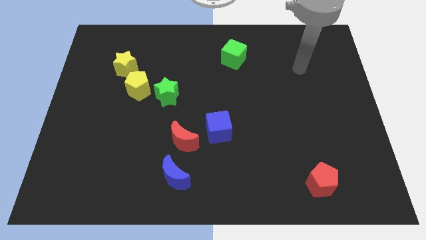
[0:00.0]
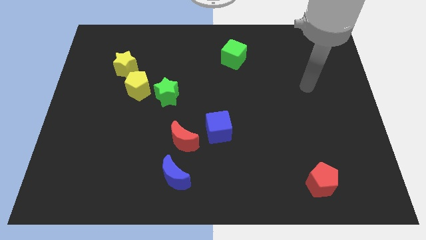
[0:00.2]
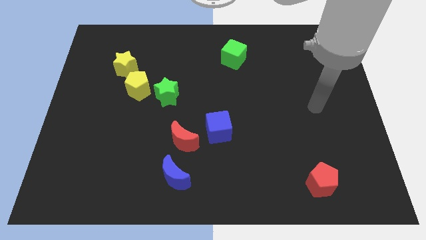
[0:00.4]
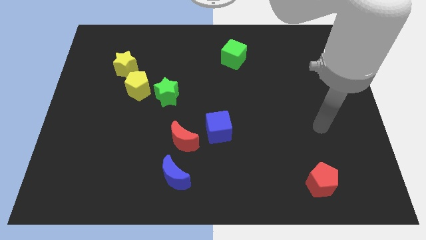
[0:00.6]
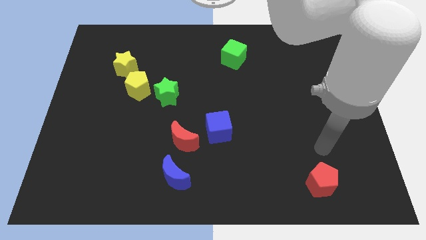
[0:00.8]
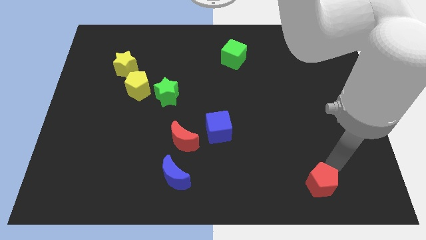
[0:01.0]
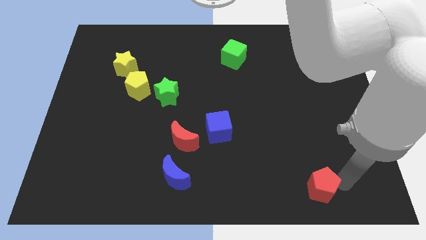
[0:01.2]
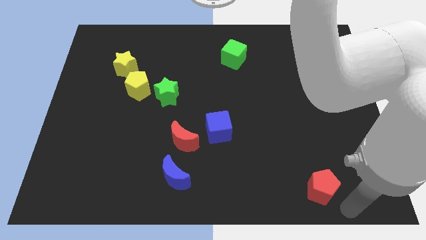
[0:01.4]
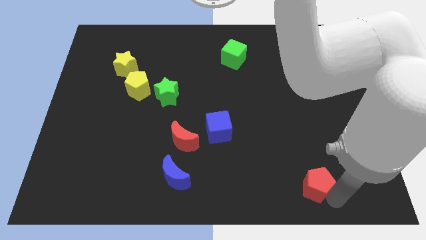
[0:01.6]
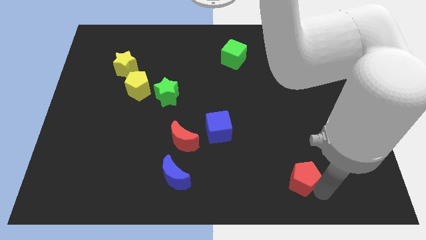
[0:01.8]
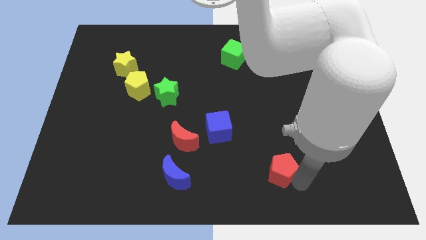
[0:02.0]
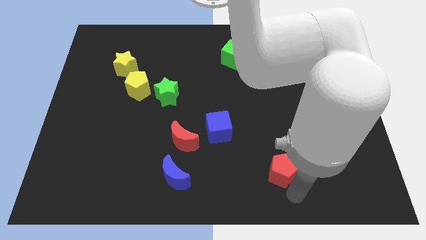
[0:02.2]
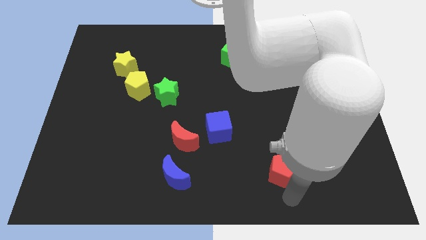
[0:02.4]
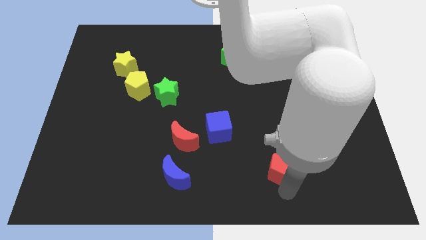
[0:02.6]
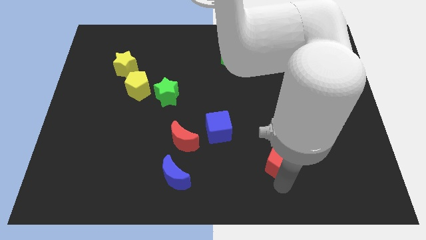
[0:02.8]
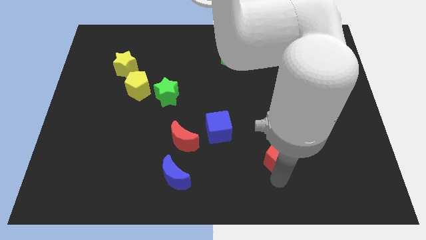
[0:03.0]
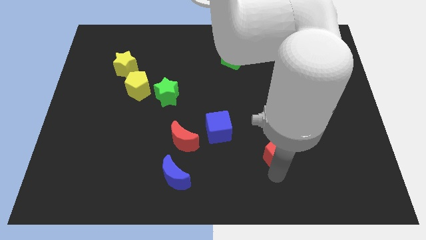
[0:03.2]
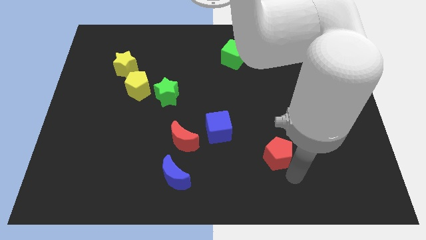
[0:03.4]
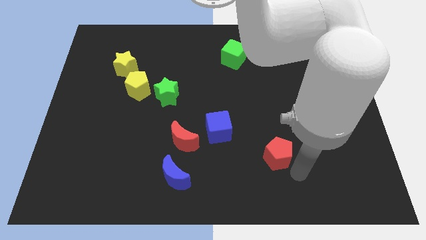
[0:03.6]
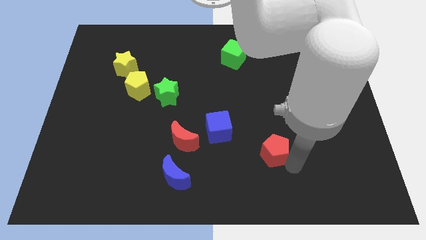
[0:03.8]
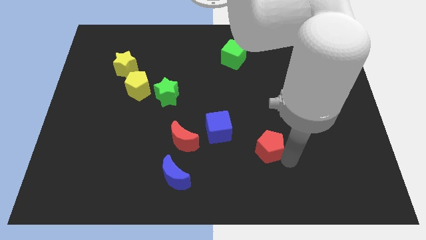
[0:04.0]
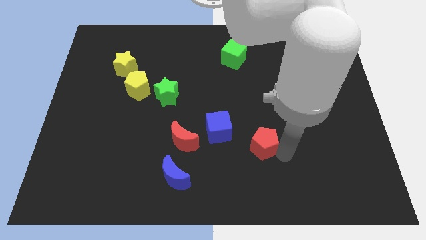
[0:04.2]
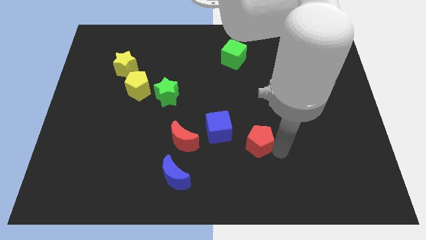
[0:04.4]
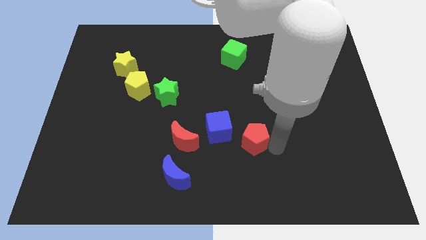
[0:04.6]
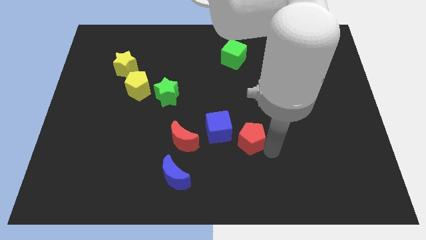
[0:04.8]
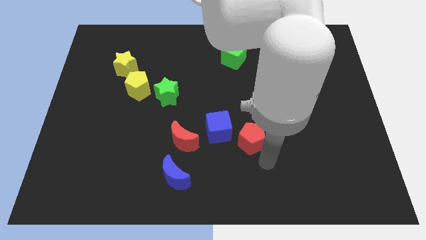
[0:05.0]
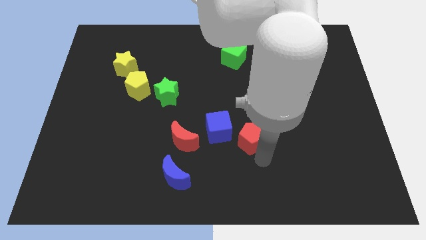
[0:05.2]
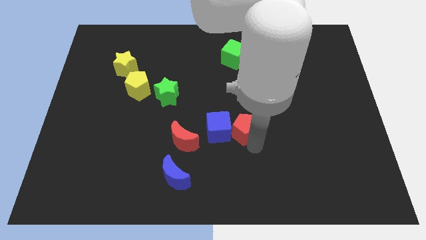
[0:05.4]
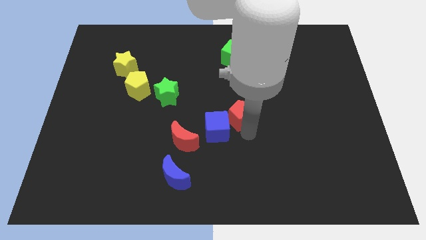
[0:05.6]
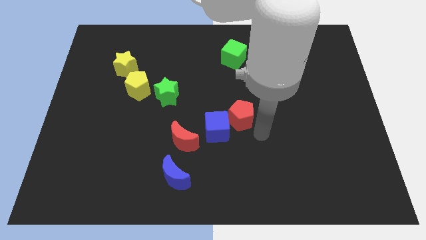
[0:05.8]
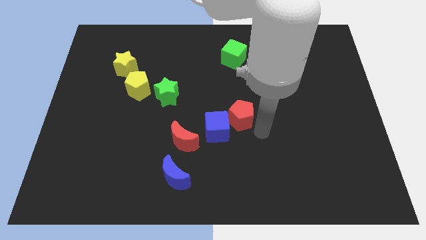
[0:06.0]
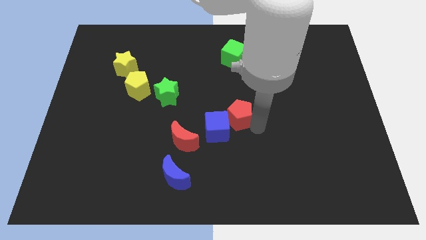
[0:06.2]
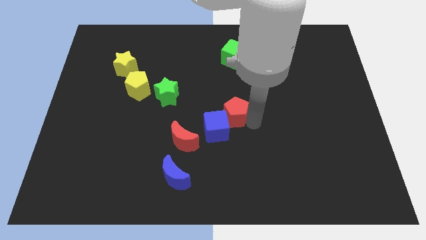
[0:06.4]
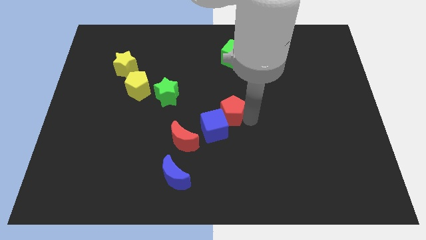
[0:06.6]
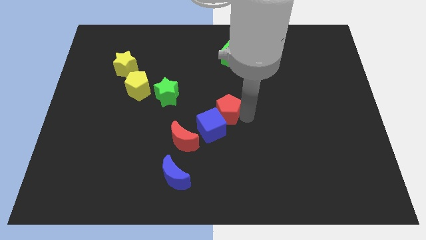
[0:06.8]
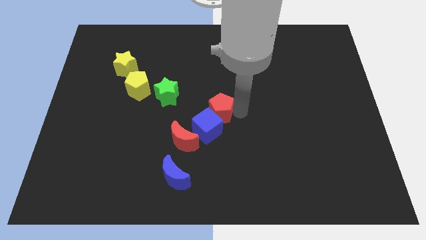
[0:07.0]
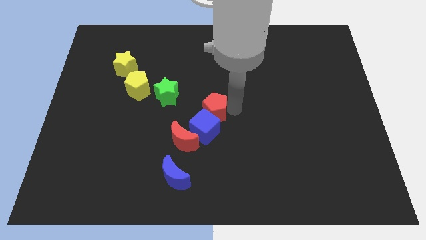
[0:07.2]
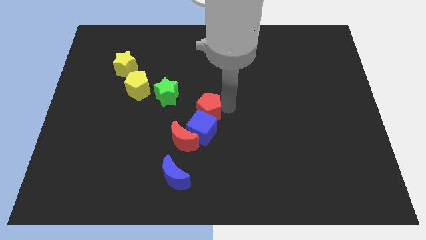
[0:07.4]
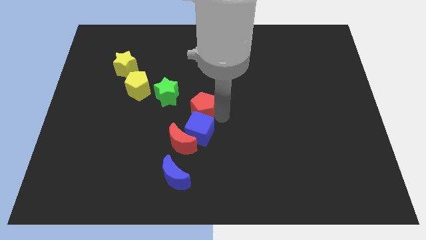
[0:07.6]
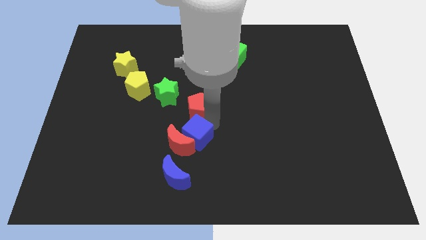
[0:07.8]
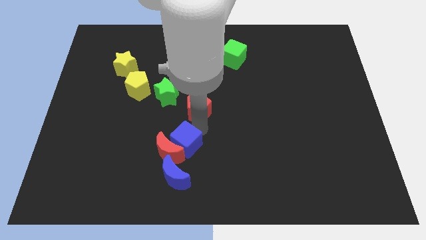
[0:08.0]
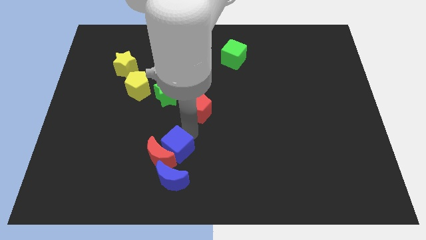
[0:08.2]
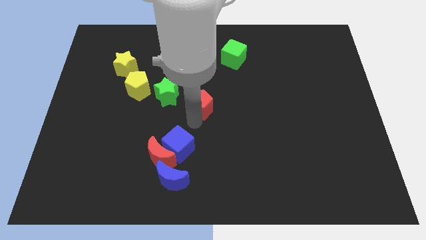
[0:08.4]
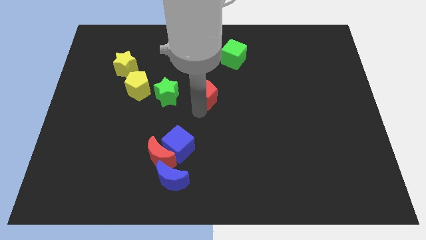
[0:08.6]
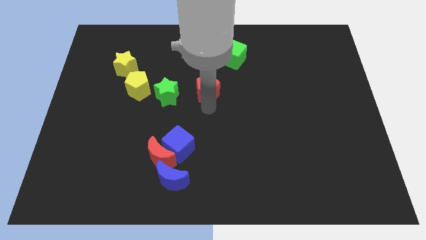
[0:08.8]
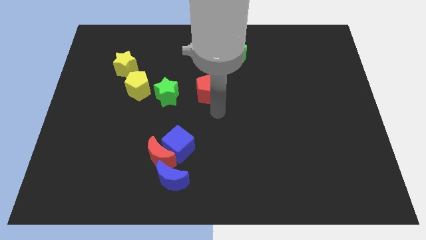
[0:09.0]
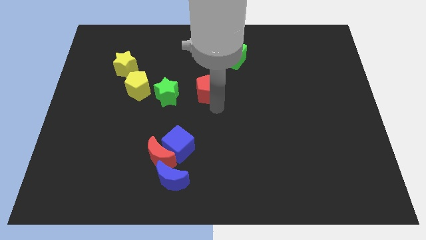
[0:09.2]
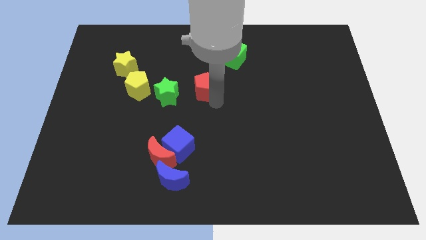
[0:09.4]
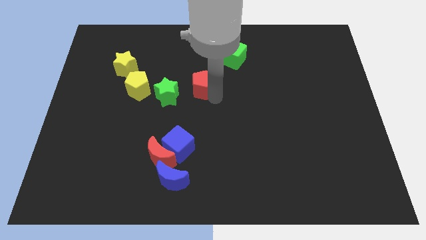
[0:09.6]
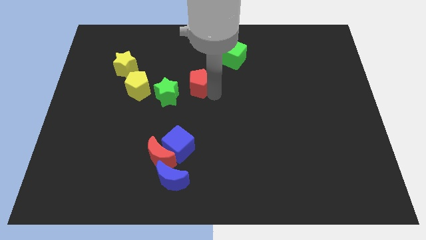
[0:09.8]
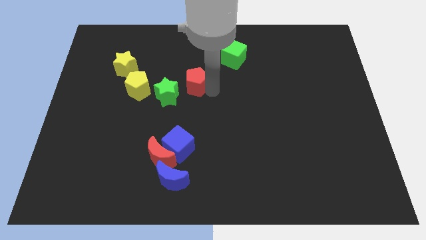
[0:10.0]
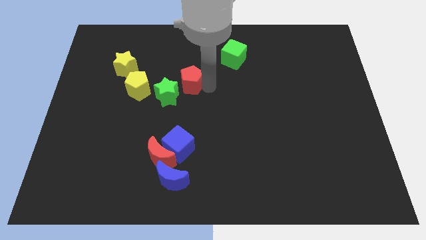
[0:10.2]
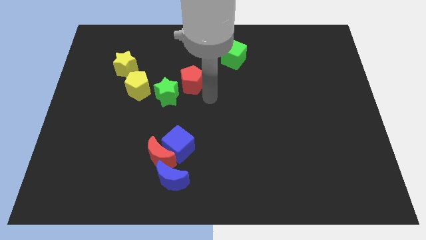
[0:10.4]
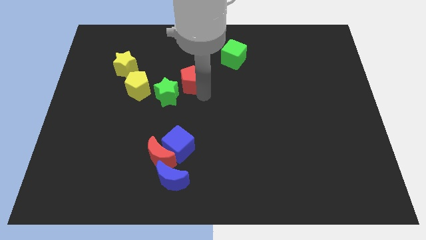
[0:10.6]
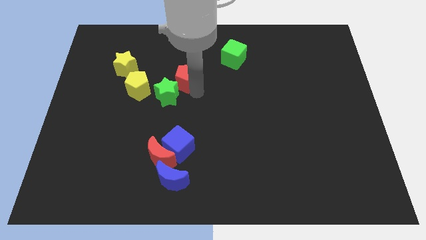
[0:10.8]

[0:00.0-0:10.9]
slide the red pentagon to the top side of the green star

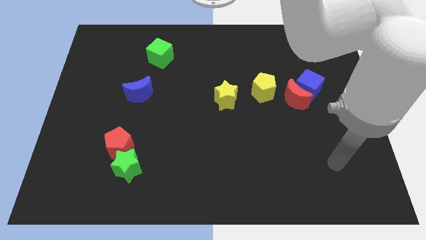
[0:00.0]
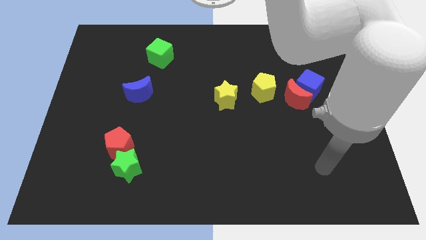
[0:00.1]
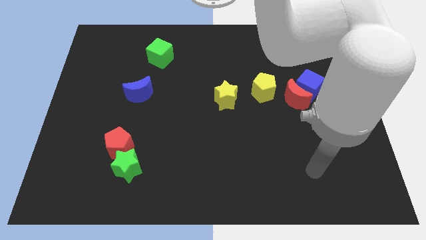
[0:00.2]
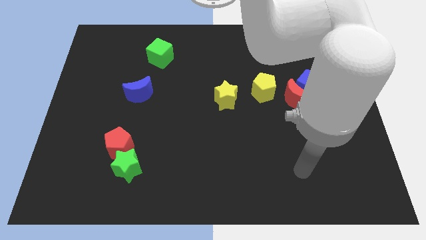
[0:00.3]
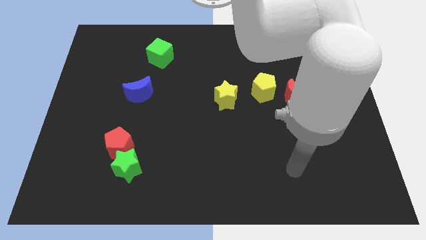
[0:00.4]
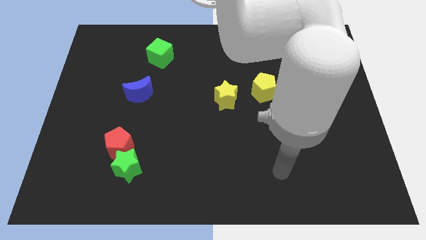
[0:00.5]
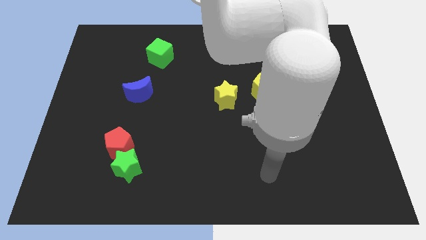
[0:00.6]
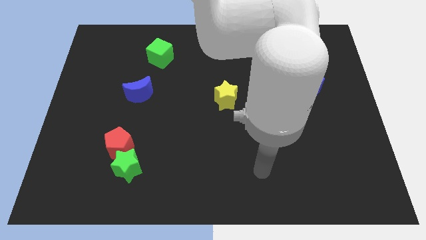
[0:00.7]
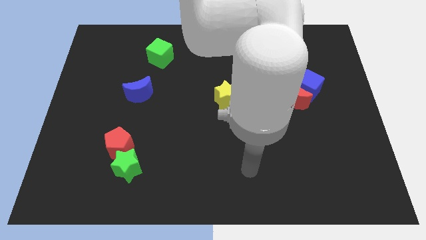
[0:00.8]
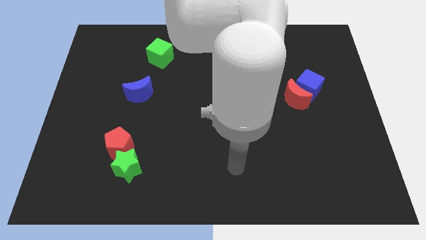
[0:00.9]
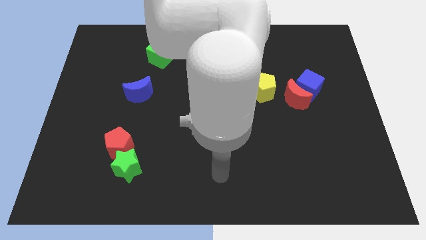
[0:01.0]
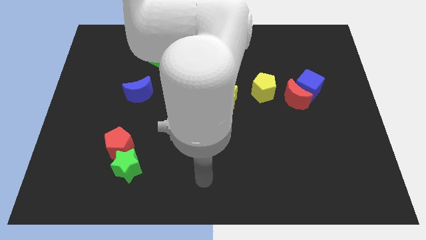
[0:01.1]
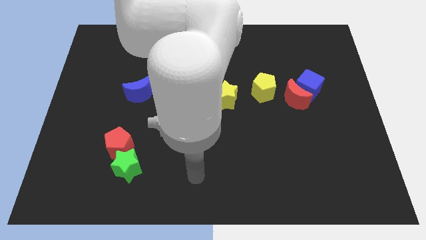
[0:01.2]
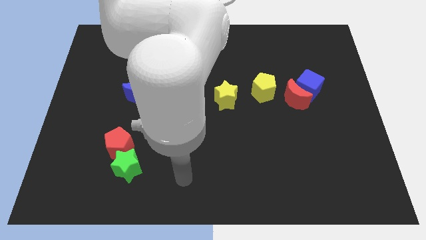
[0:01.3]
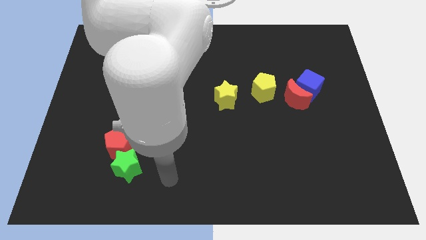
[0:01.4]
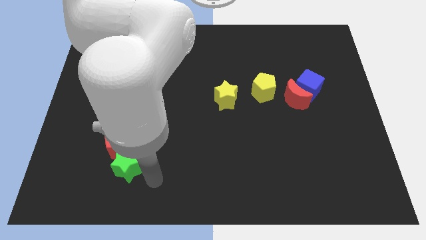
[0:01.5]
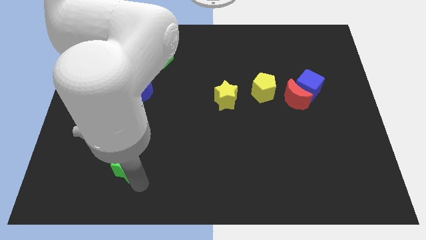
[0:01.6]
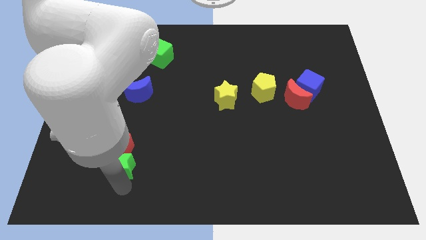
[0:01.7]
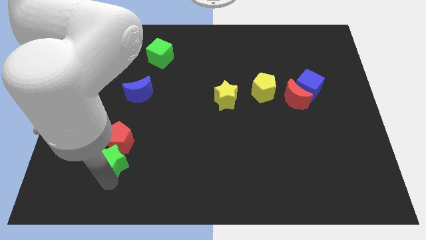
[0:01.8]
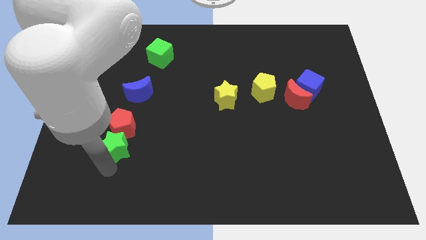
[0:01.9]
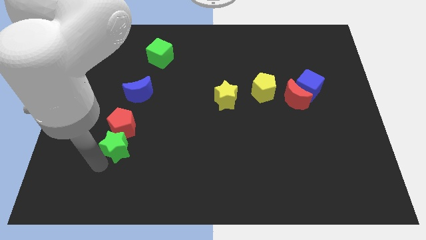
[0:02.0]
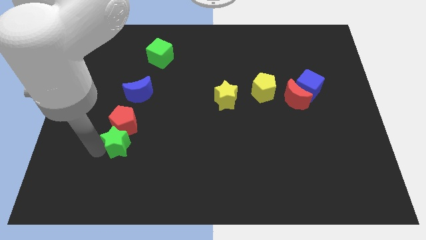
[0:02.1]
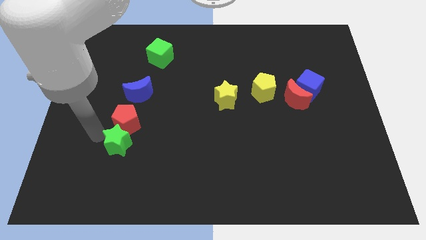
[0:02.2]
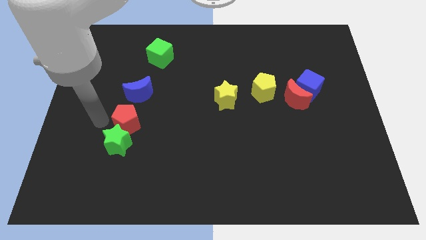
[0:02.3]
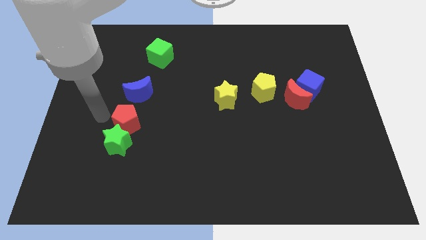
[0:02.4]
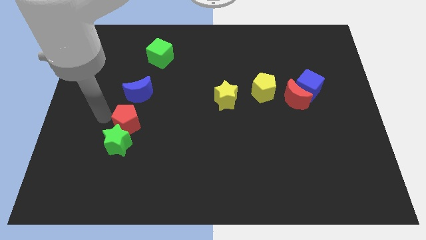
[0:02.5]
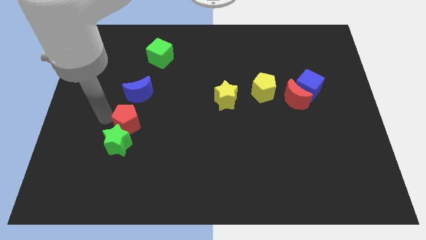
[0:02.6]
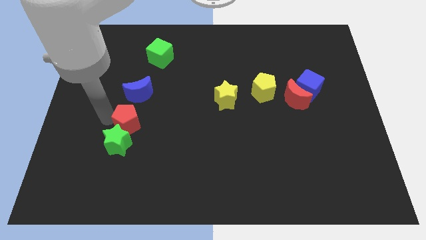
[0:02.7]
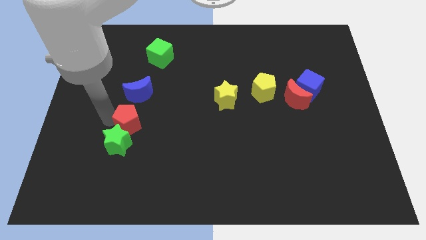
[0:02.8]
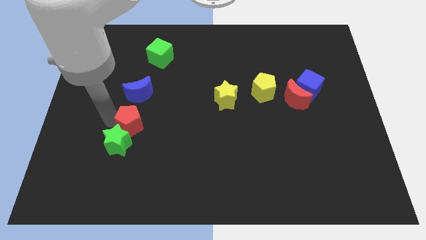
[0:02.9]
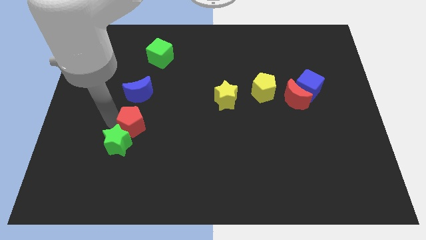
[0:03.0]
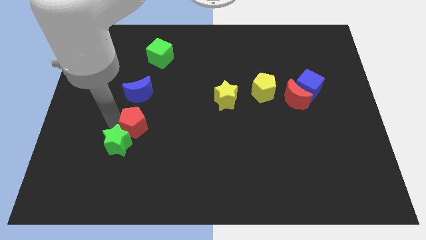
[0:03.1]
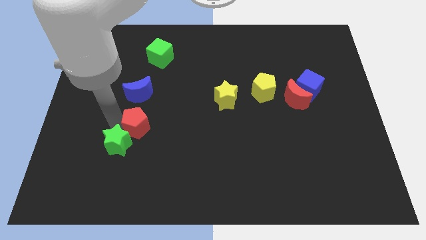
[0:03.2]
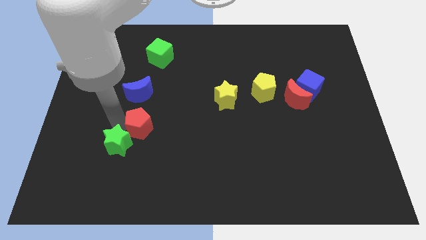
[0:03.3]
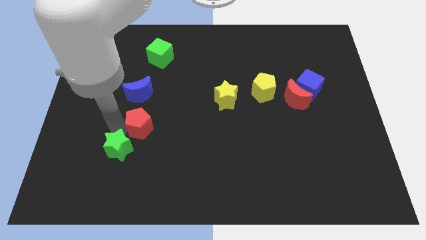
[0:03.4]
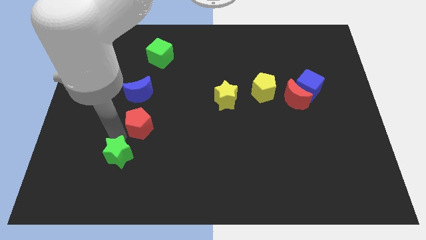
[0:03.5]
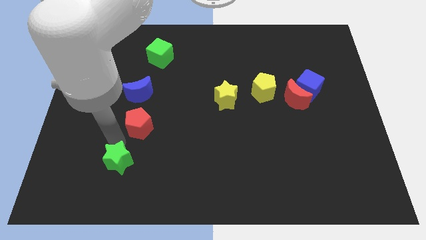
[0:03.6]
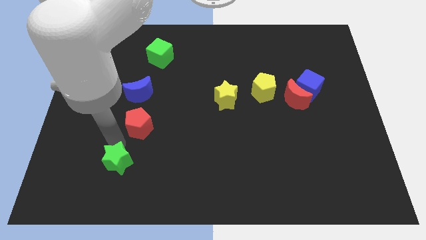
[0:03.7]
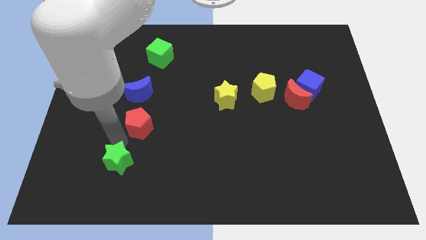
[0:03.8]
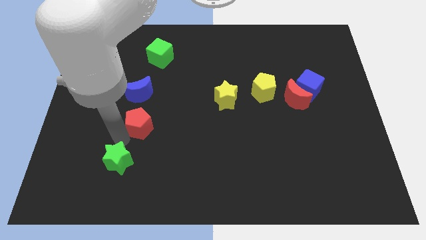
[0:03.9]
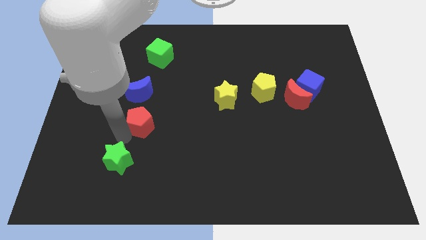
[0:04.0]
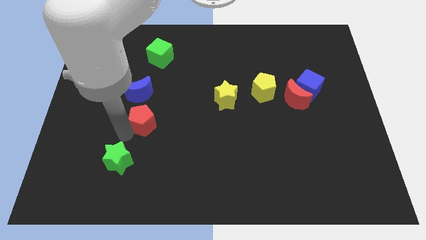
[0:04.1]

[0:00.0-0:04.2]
slide the red pentagon to the bottom right of the blue moon
